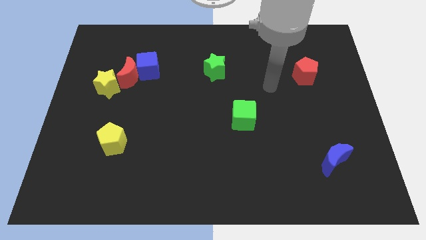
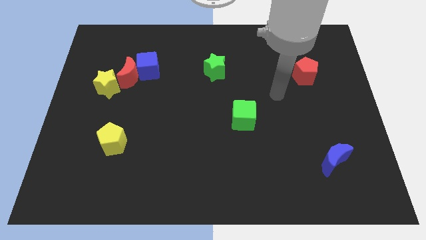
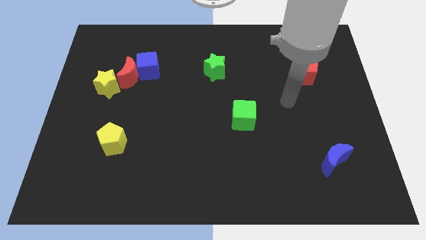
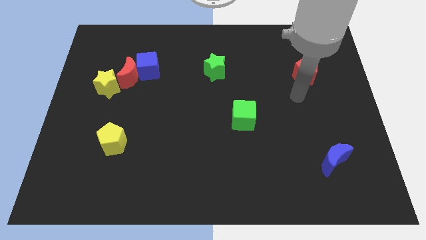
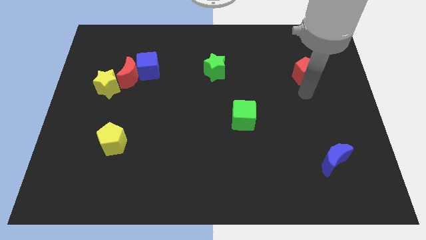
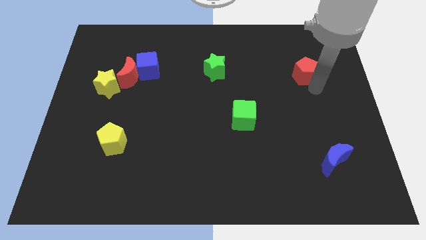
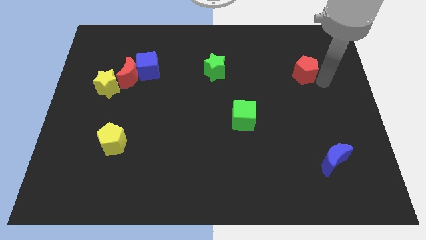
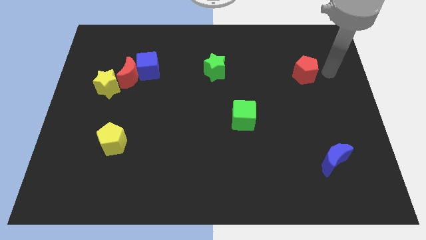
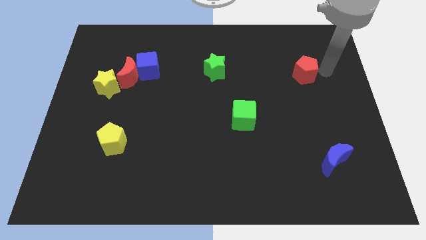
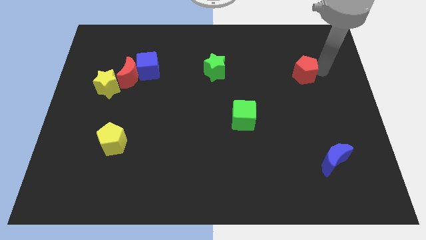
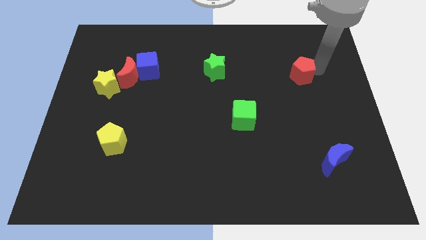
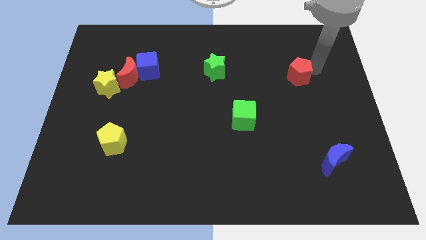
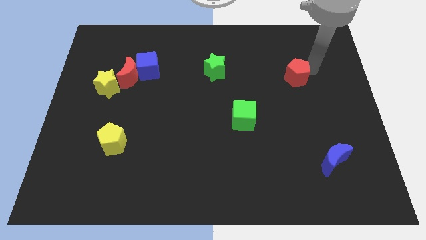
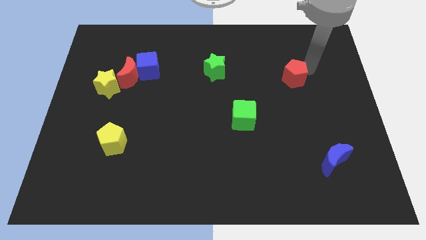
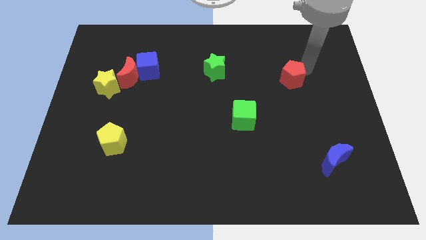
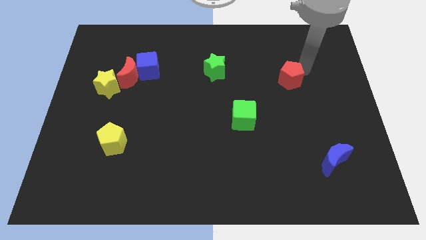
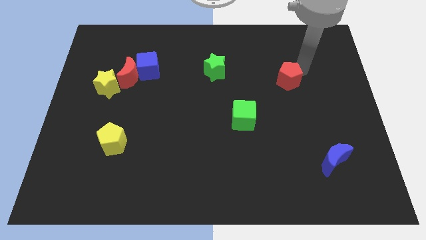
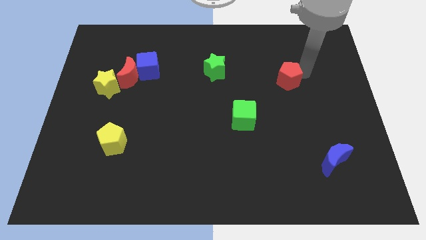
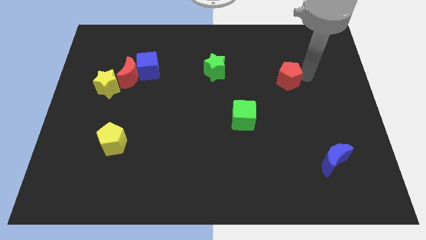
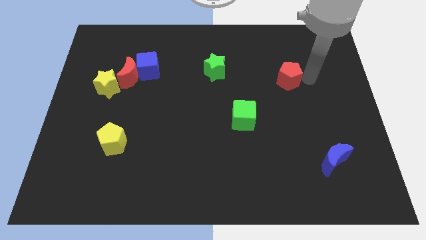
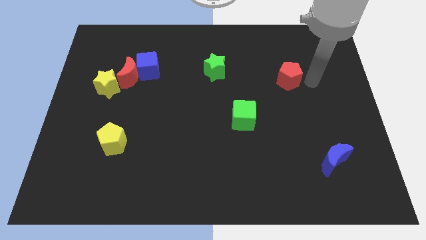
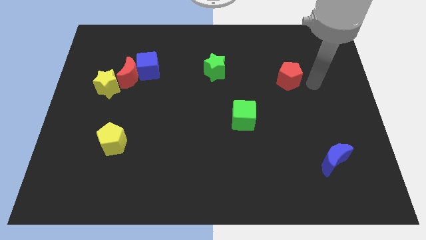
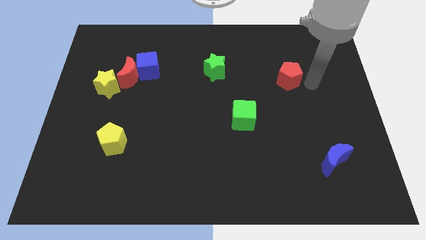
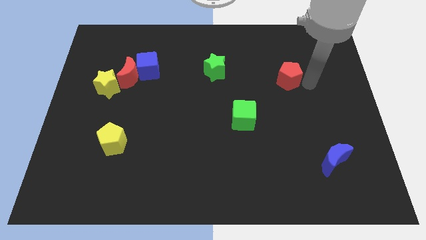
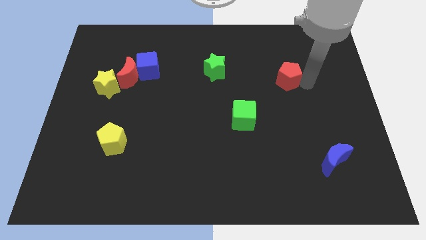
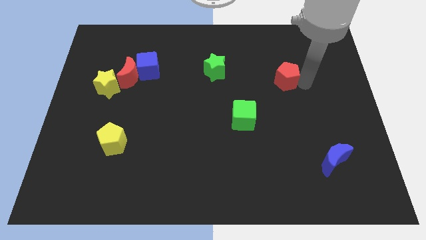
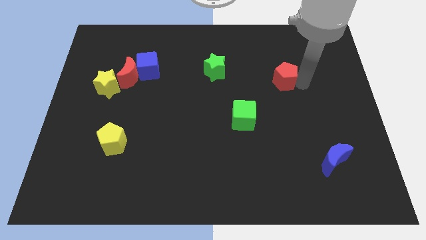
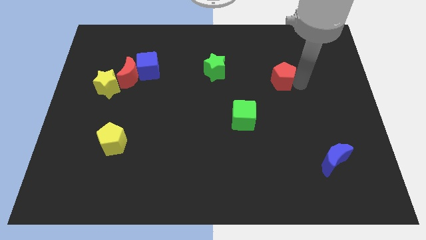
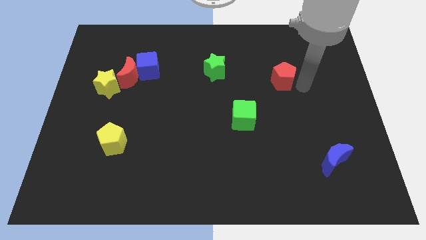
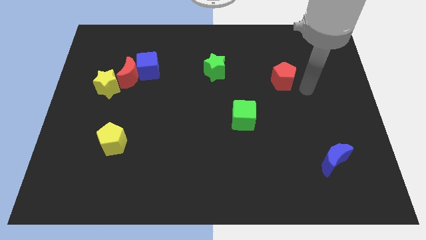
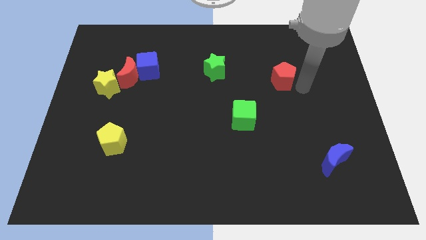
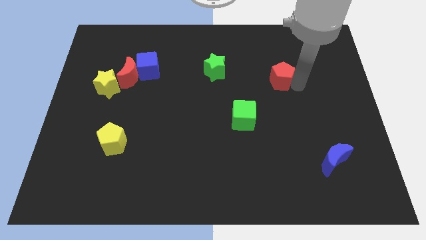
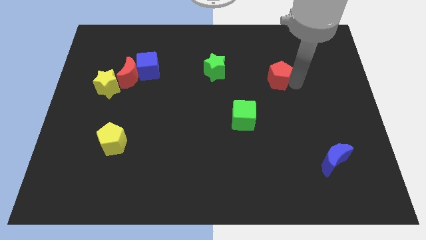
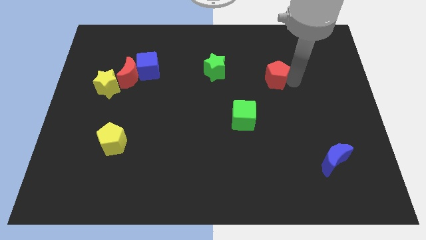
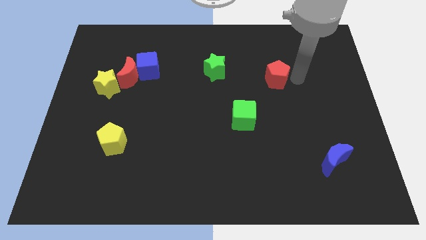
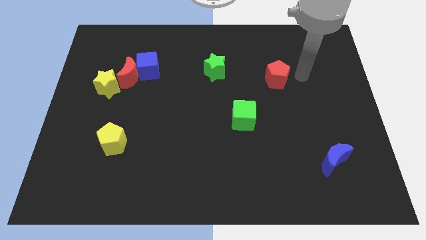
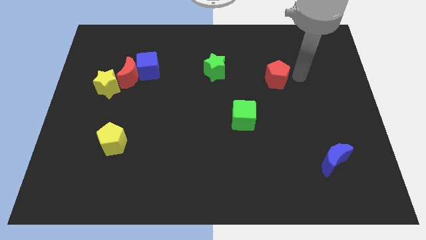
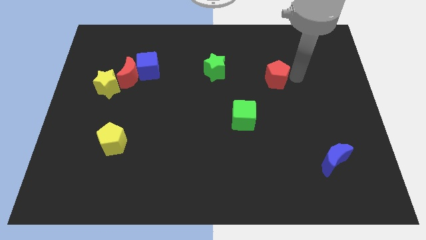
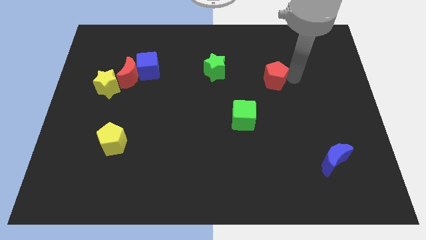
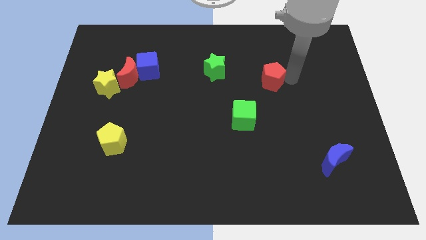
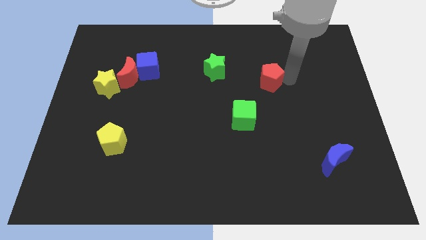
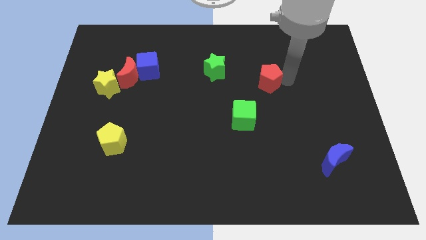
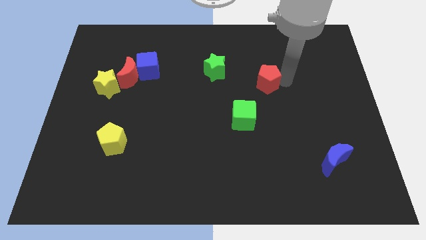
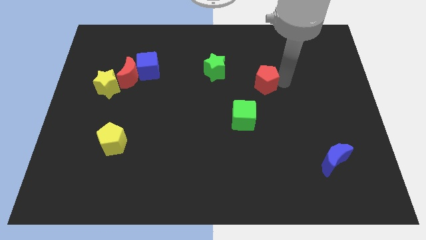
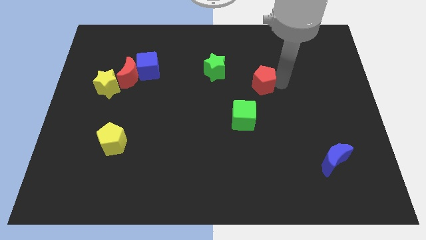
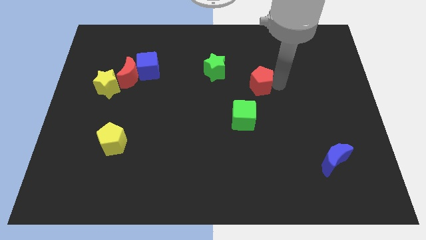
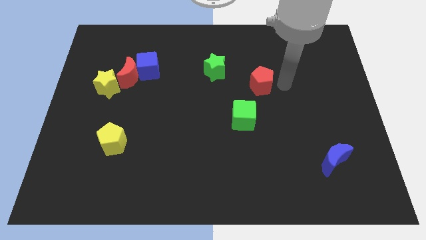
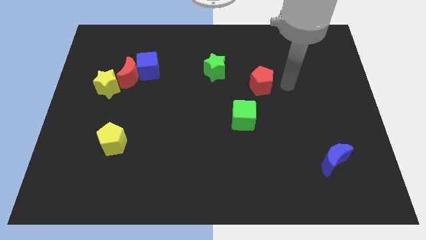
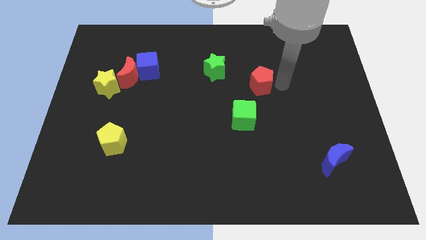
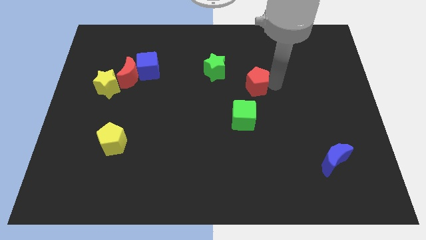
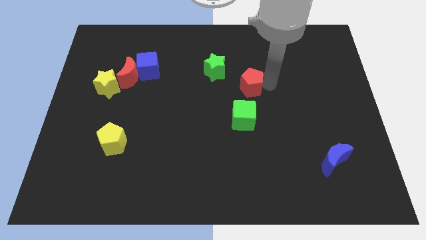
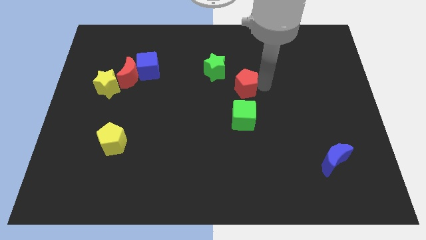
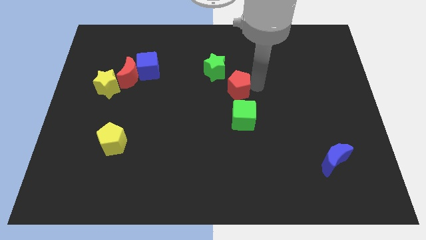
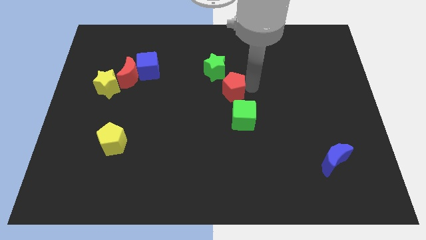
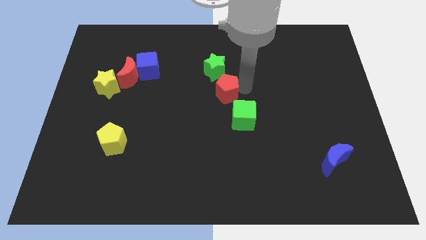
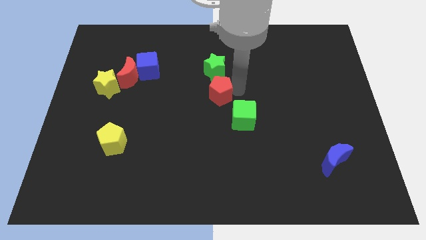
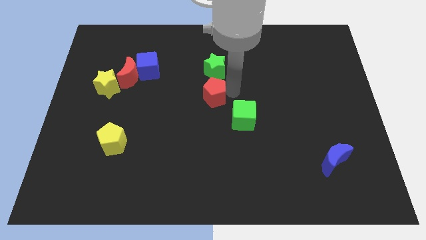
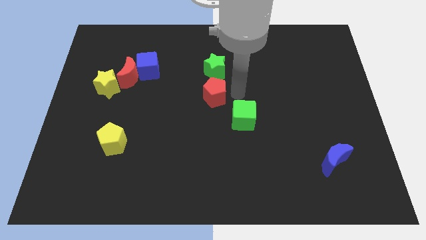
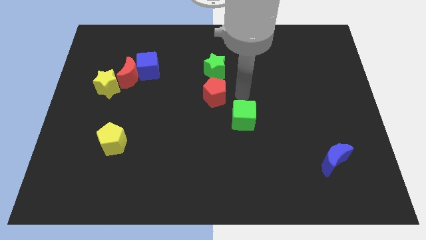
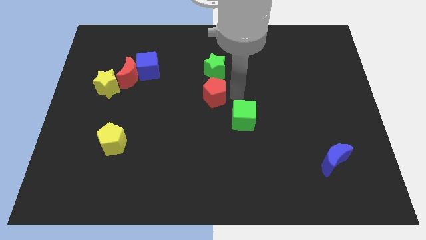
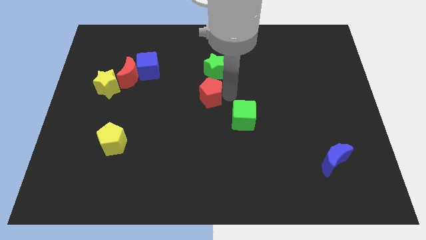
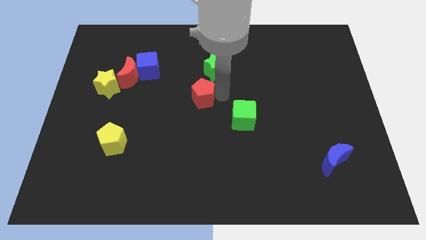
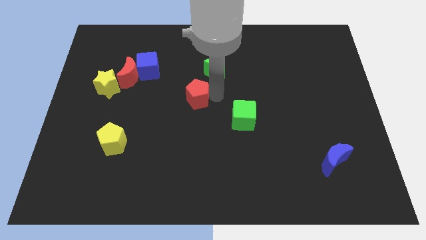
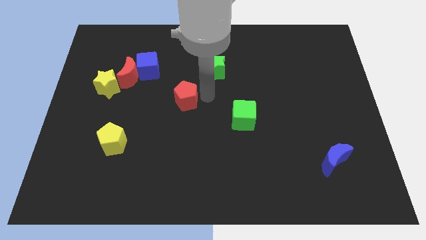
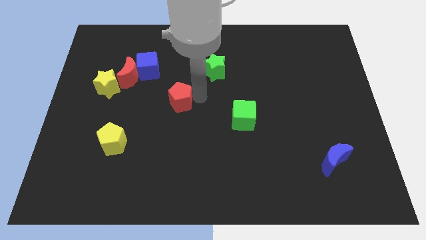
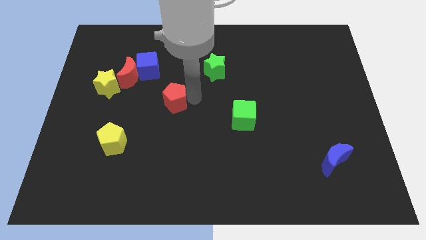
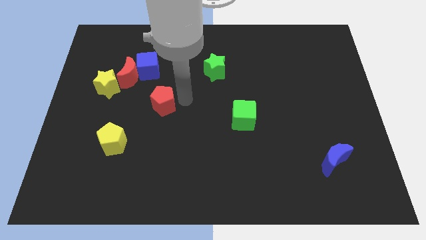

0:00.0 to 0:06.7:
move the red pentagon to the bottom of the blue cube

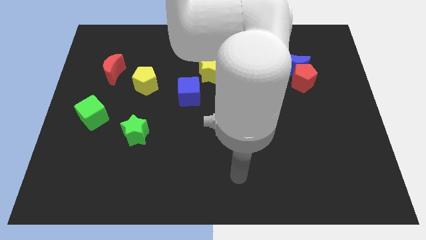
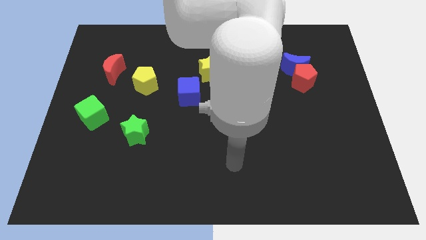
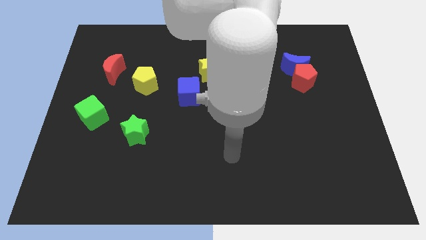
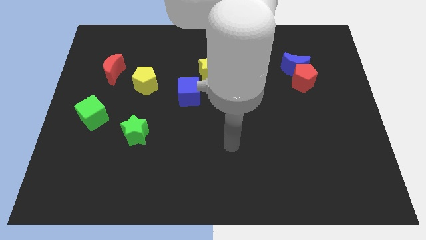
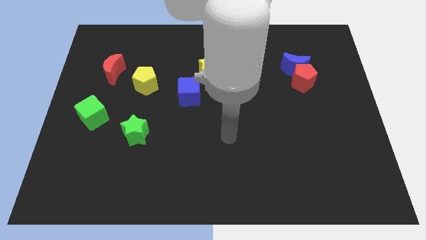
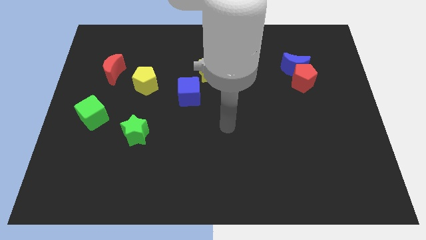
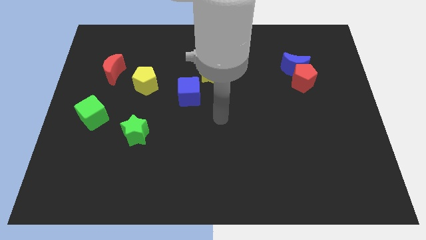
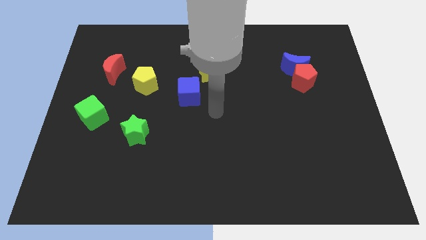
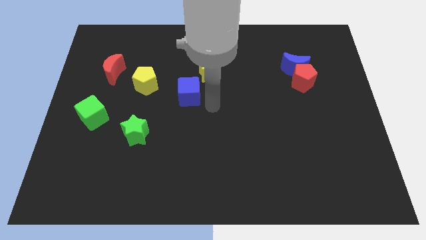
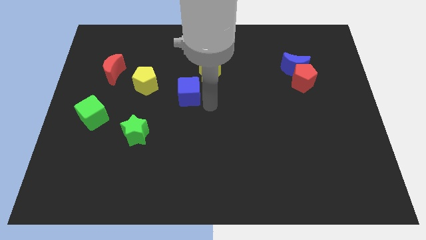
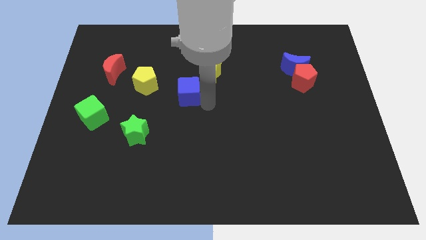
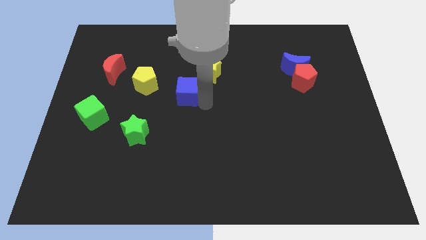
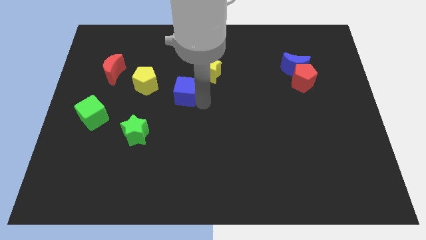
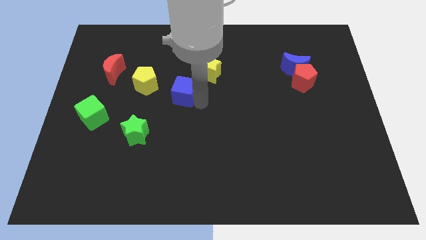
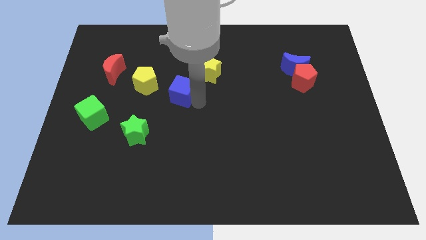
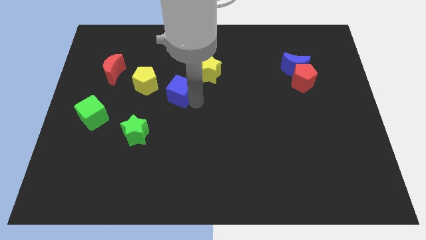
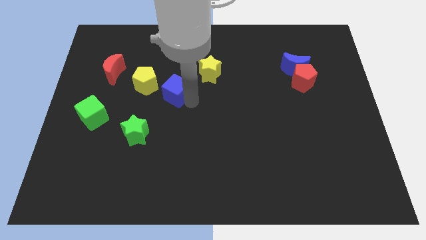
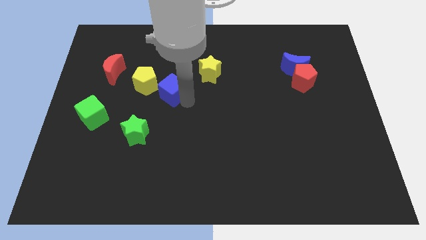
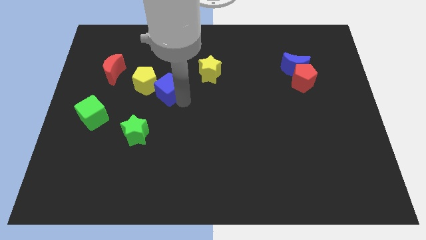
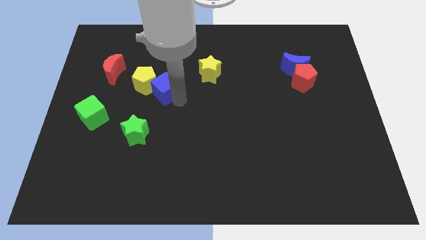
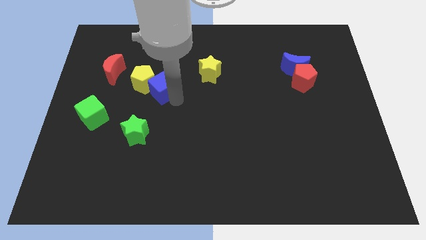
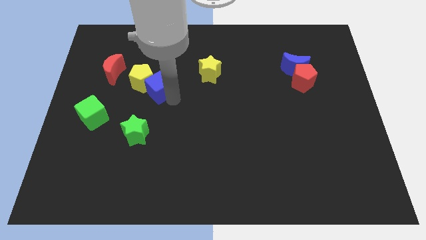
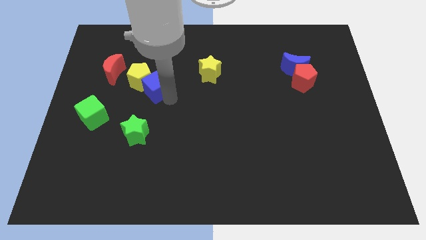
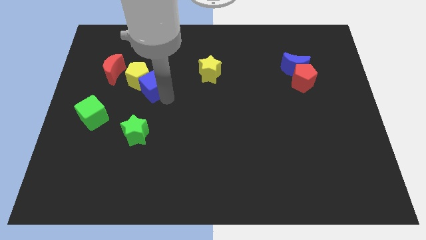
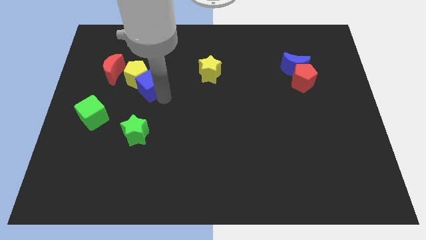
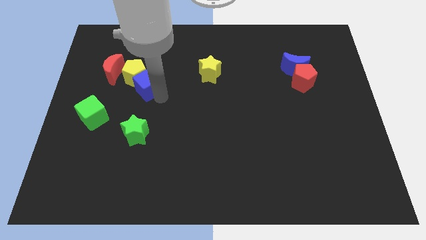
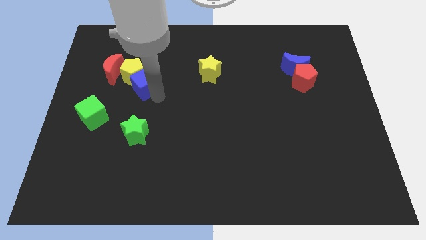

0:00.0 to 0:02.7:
move the blue cube to the right of the red moon
